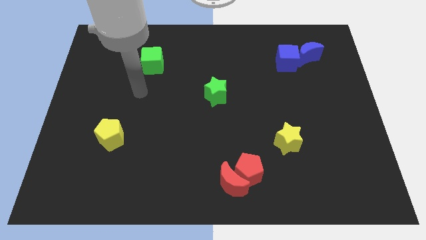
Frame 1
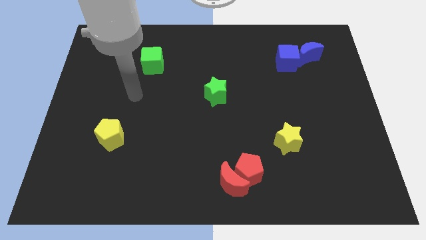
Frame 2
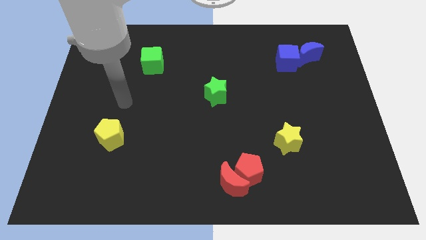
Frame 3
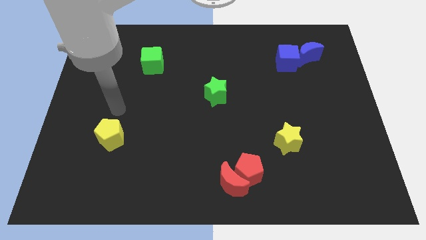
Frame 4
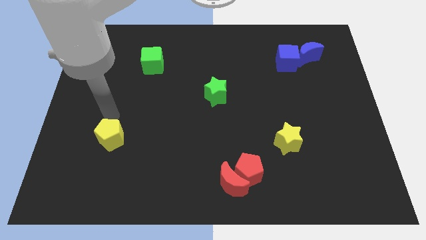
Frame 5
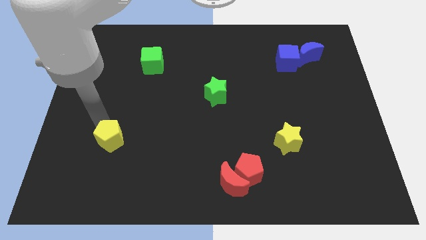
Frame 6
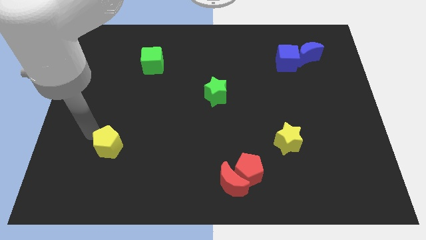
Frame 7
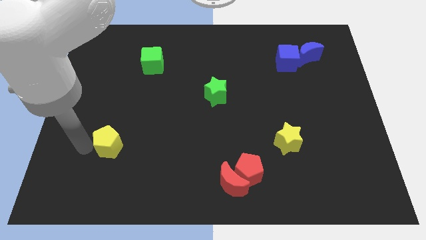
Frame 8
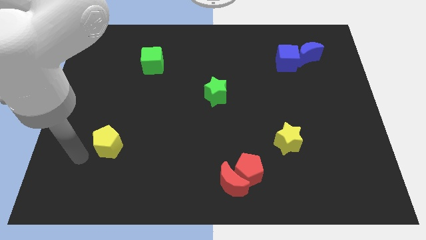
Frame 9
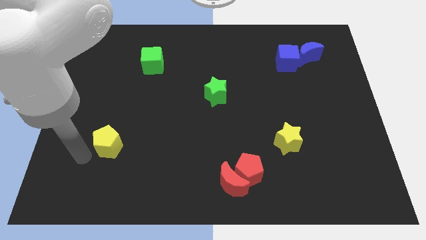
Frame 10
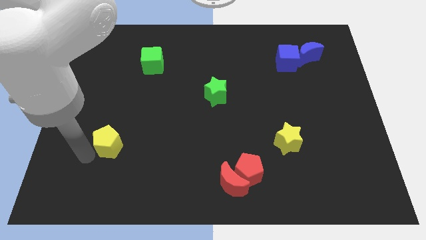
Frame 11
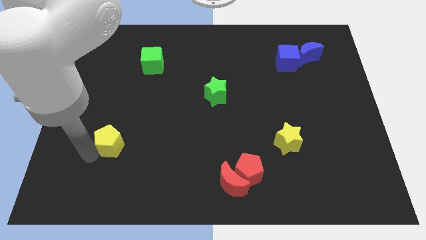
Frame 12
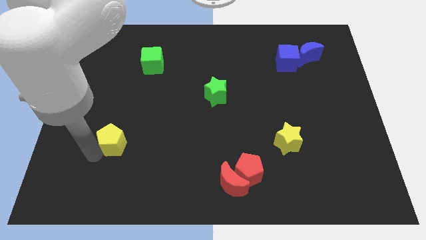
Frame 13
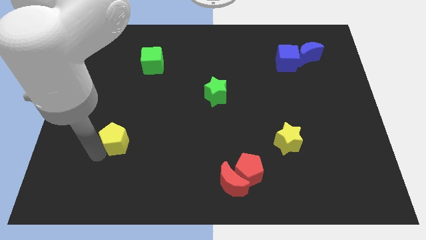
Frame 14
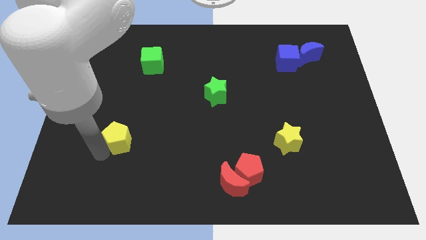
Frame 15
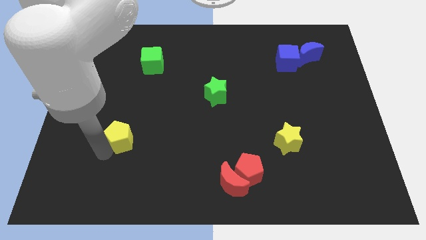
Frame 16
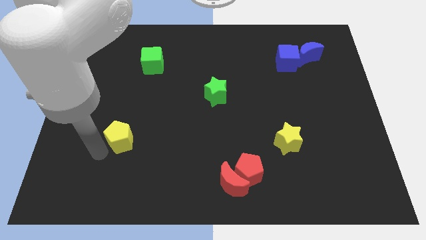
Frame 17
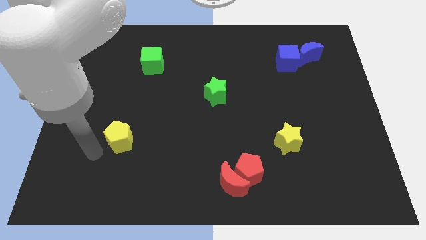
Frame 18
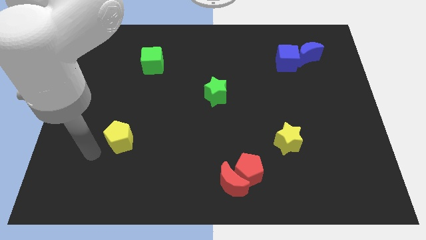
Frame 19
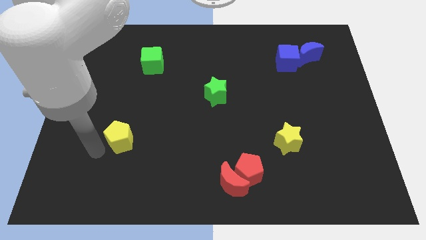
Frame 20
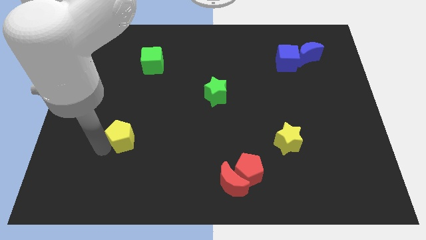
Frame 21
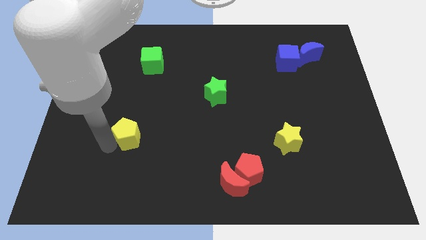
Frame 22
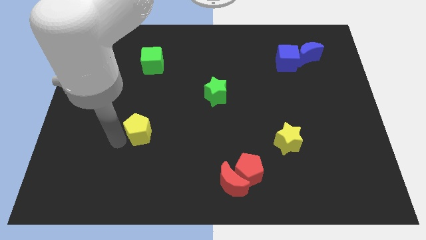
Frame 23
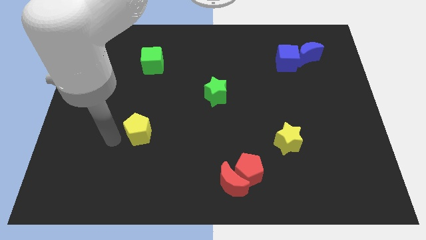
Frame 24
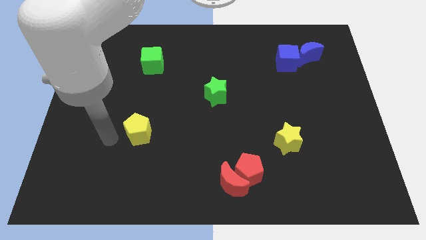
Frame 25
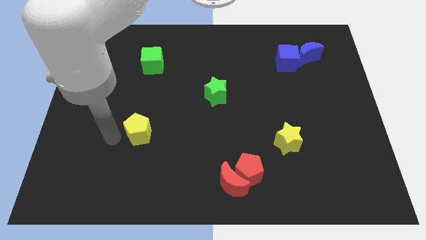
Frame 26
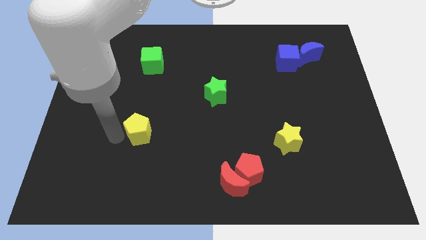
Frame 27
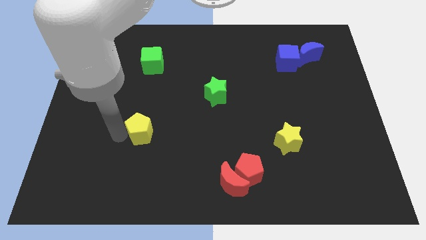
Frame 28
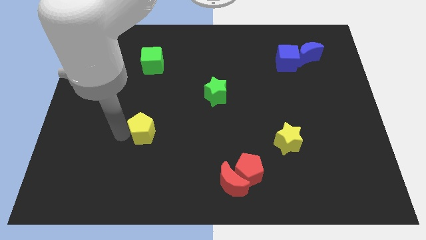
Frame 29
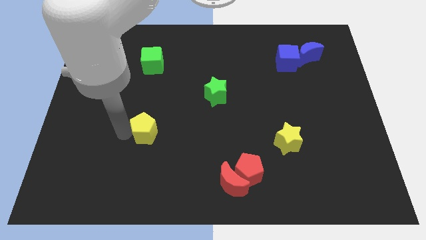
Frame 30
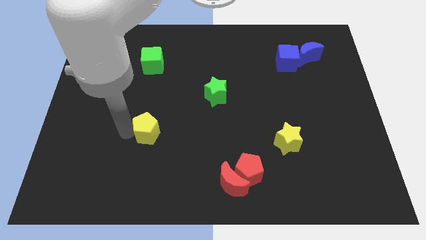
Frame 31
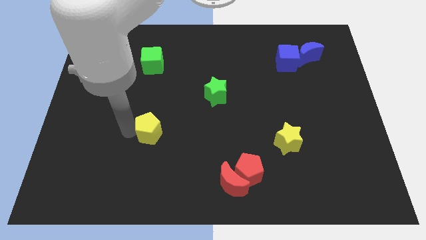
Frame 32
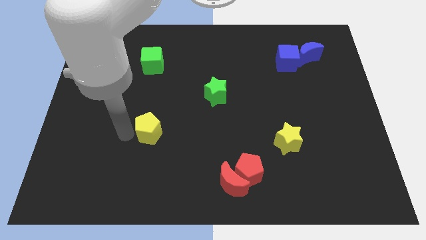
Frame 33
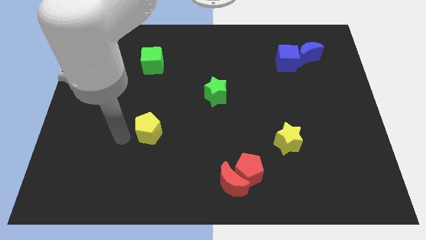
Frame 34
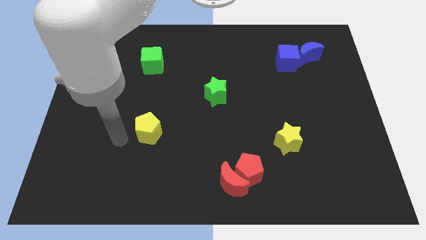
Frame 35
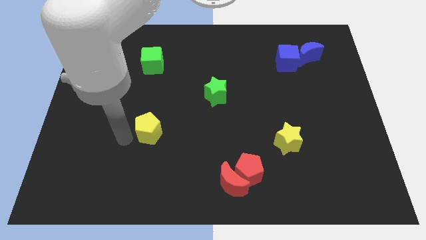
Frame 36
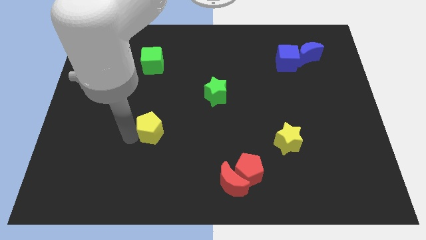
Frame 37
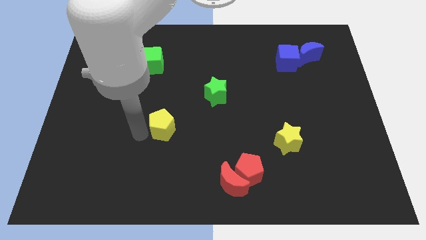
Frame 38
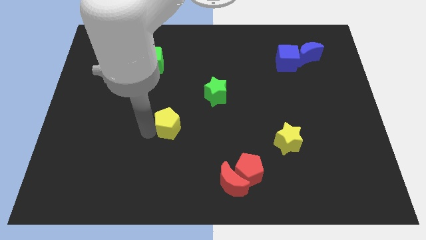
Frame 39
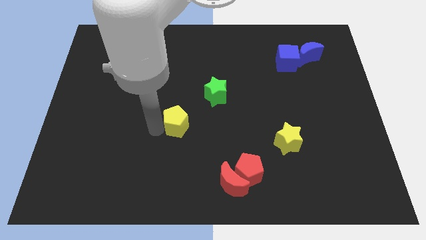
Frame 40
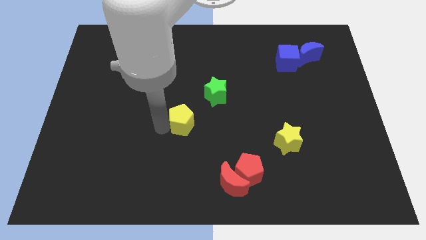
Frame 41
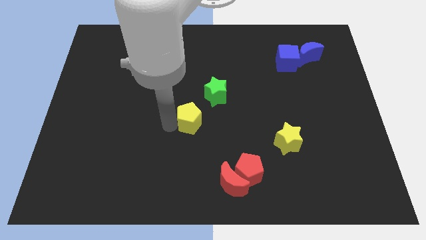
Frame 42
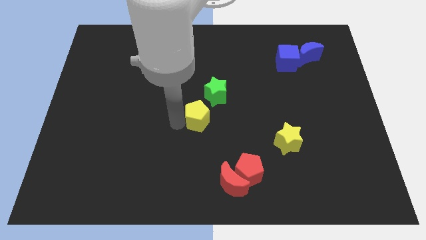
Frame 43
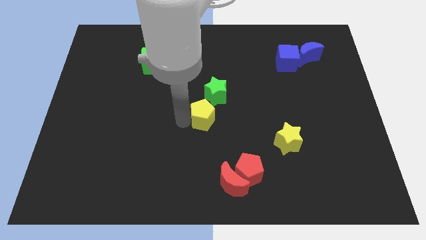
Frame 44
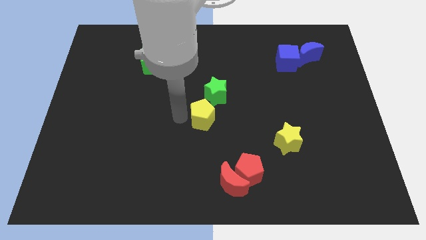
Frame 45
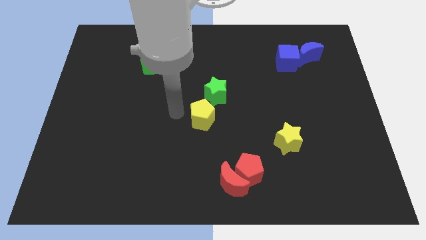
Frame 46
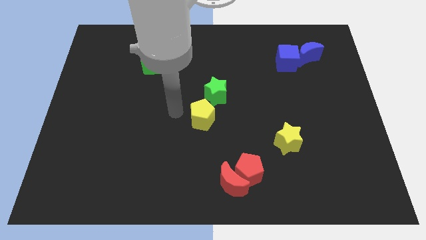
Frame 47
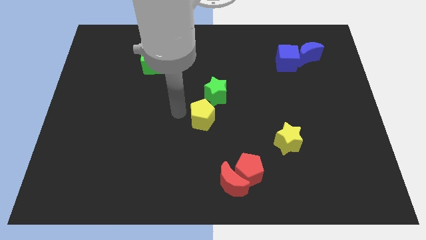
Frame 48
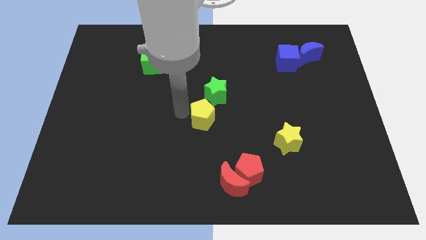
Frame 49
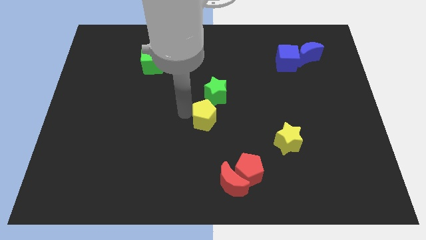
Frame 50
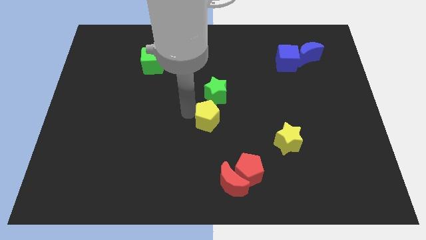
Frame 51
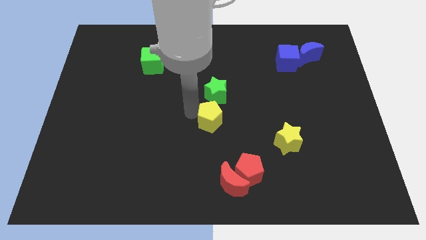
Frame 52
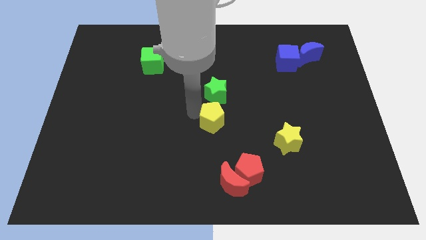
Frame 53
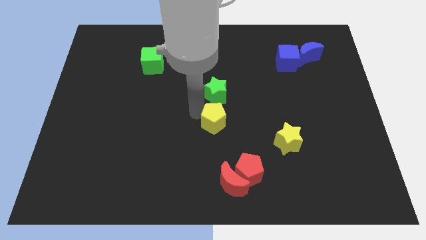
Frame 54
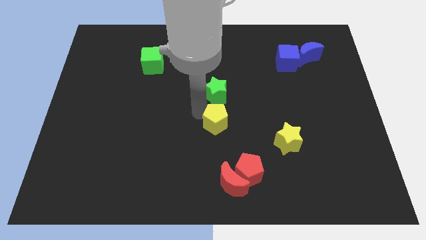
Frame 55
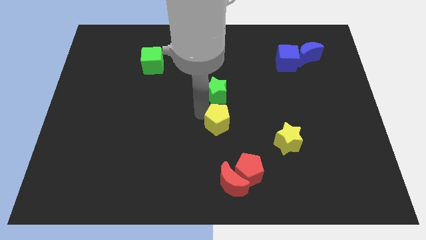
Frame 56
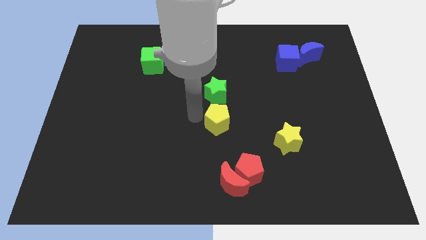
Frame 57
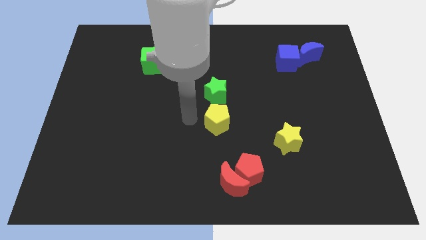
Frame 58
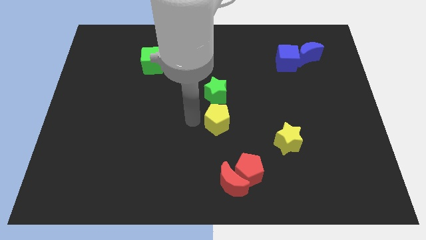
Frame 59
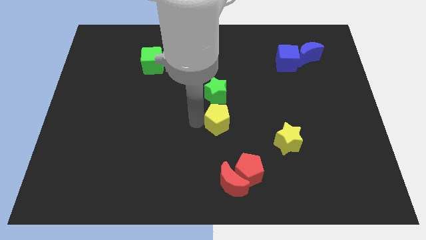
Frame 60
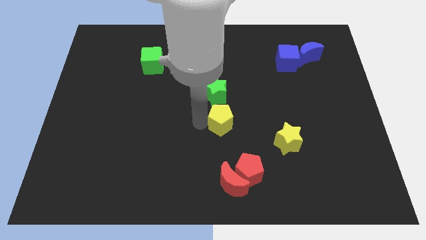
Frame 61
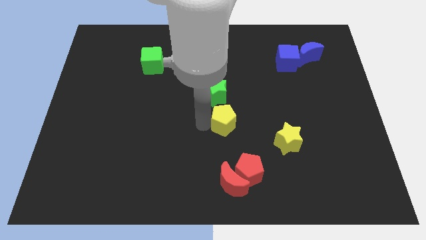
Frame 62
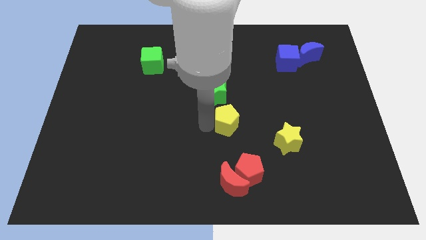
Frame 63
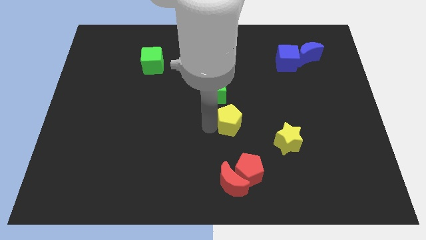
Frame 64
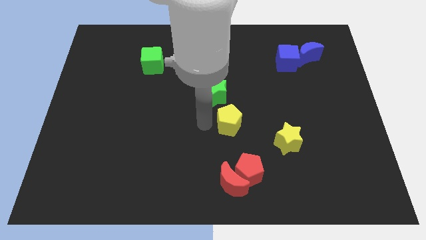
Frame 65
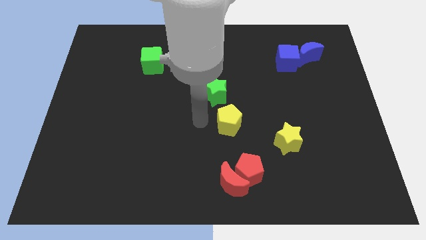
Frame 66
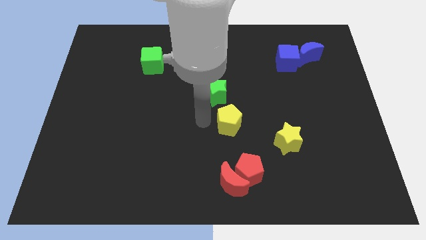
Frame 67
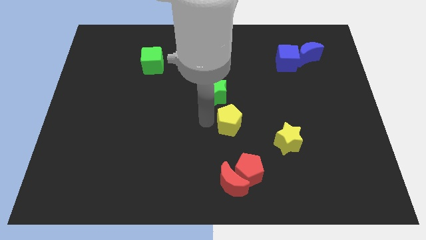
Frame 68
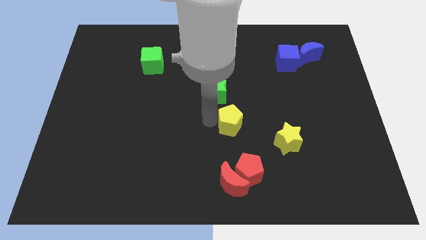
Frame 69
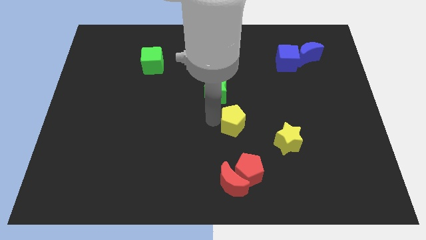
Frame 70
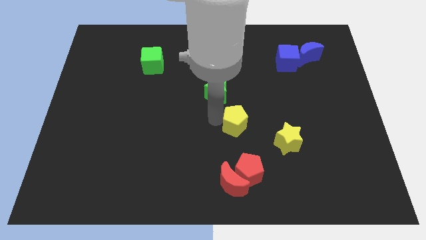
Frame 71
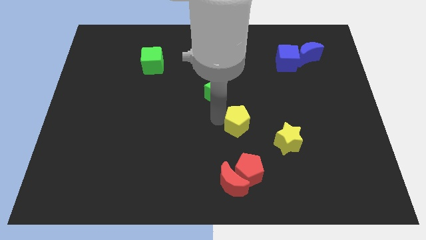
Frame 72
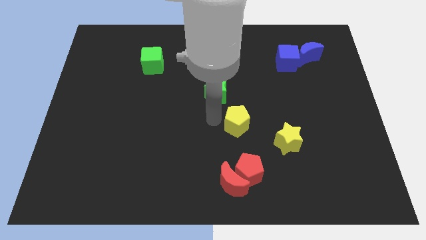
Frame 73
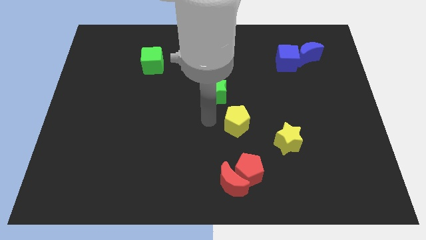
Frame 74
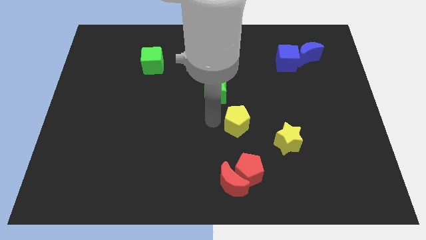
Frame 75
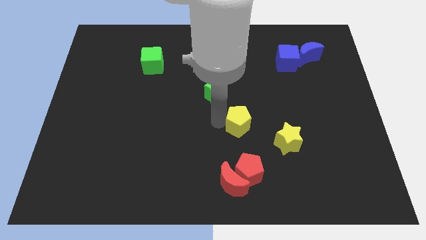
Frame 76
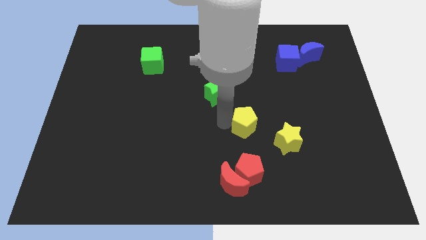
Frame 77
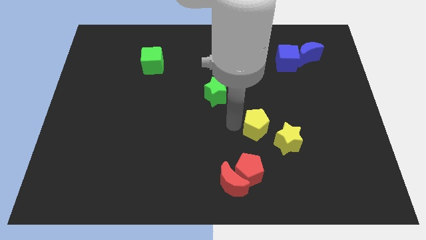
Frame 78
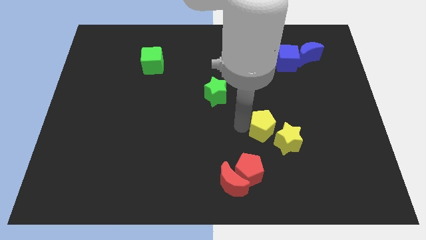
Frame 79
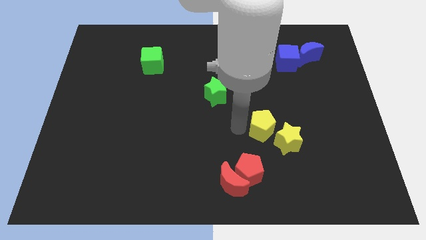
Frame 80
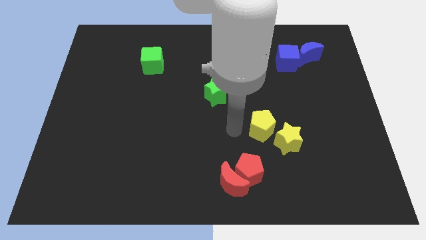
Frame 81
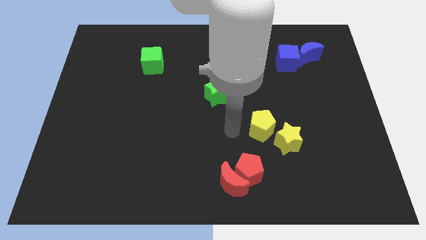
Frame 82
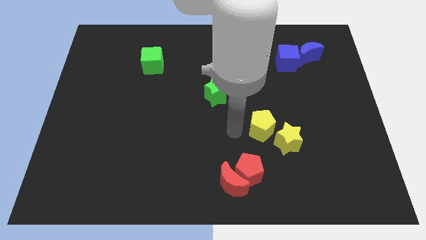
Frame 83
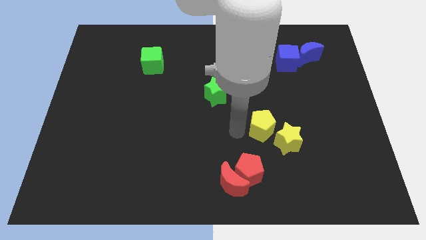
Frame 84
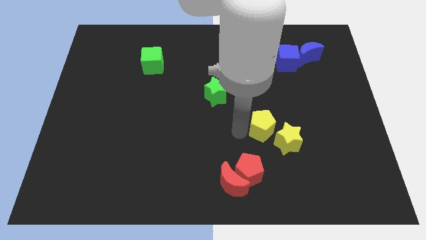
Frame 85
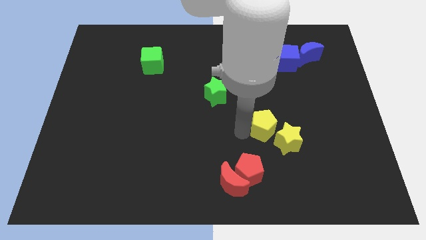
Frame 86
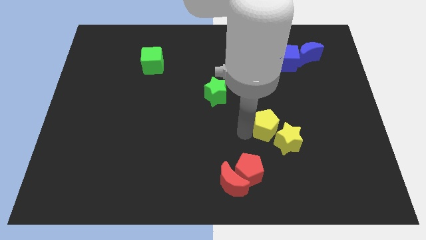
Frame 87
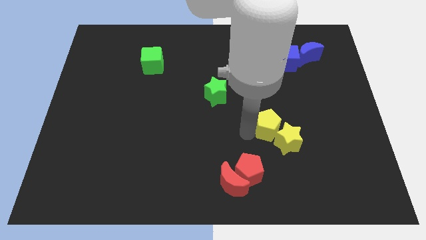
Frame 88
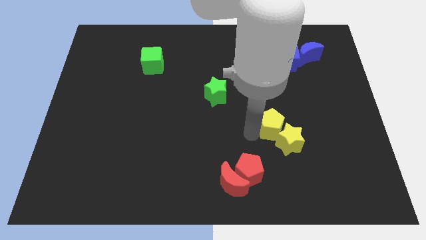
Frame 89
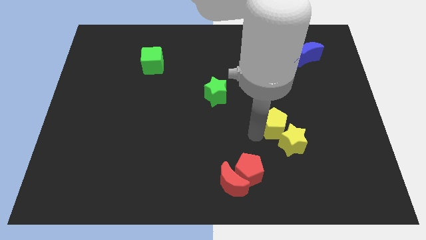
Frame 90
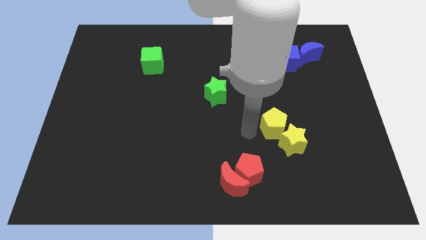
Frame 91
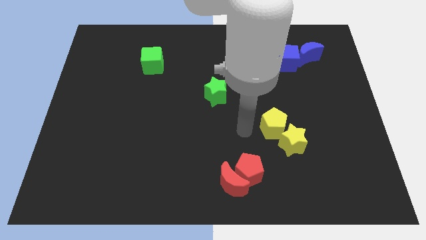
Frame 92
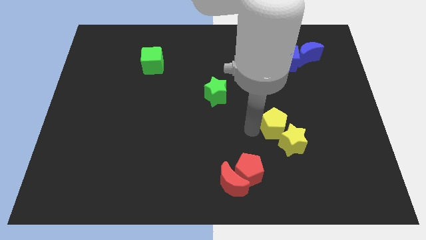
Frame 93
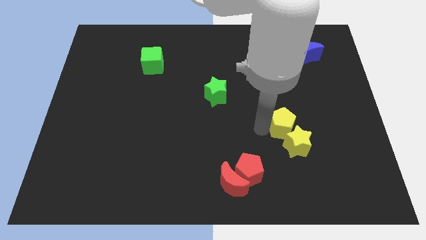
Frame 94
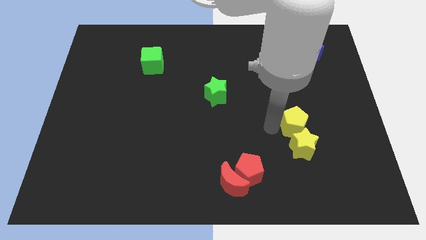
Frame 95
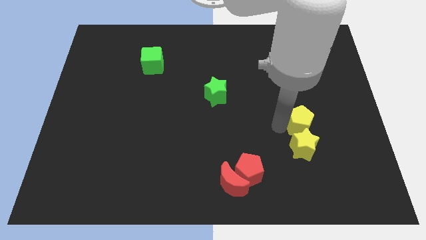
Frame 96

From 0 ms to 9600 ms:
push the yellow pentagon diagonally up and to the right of the yellow star
